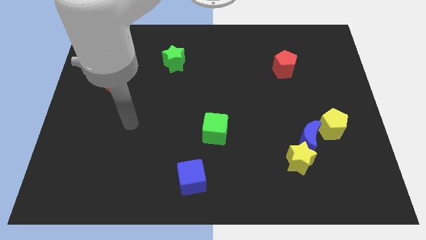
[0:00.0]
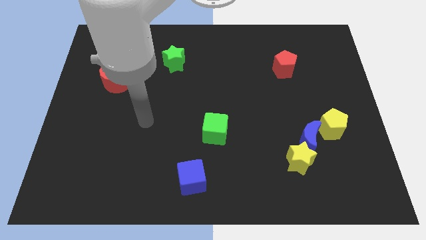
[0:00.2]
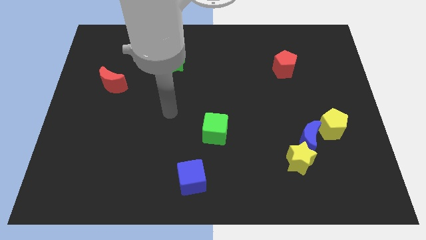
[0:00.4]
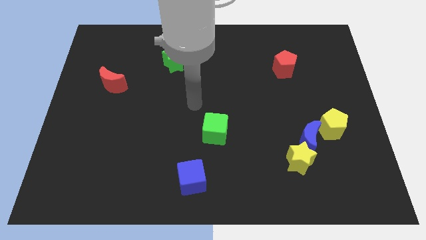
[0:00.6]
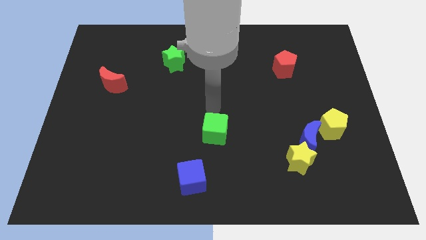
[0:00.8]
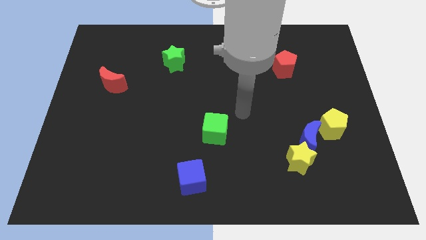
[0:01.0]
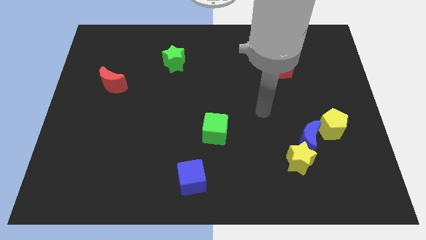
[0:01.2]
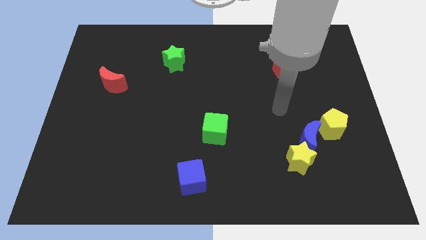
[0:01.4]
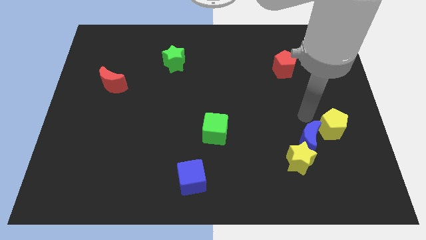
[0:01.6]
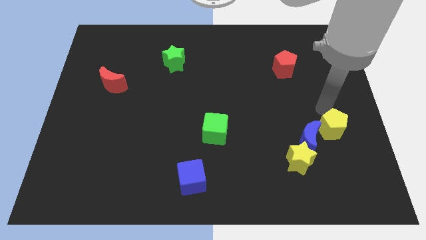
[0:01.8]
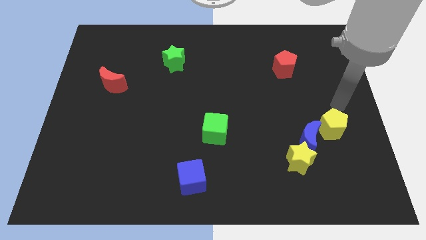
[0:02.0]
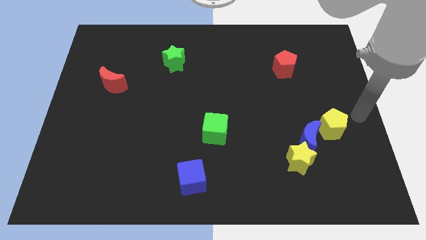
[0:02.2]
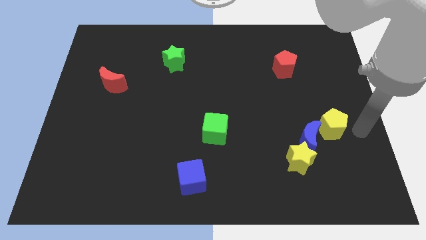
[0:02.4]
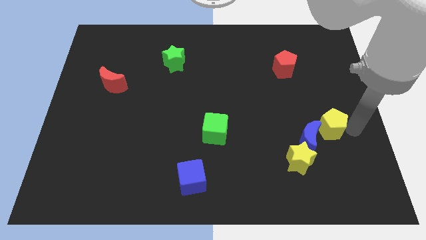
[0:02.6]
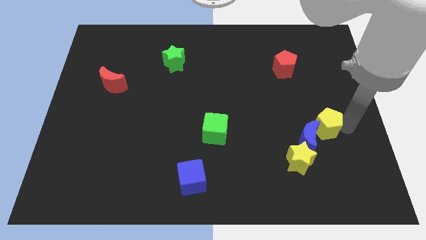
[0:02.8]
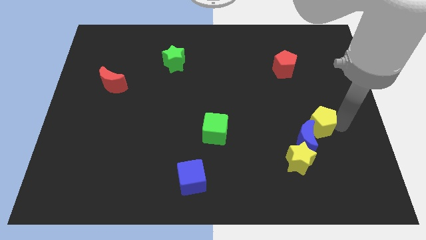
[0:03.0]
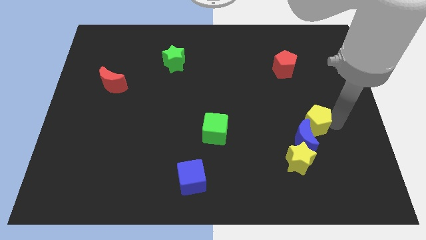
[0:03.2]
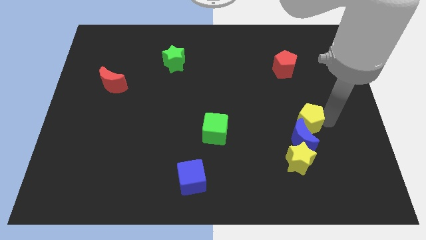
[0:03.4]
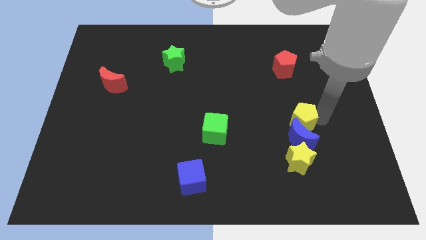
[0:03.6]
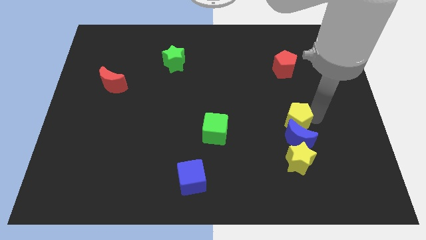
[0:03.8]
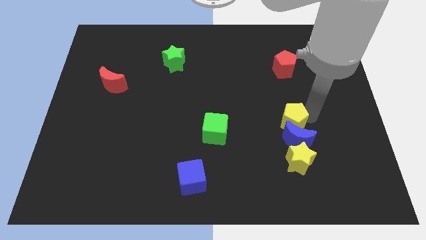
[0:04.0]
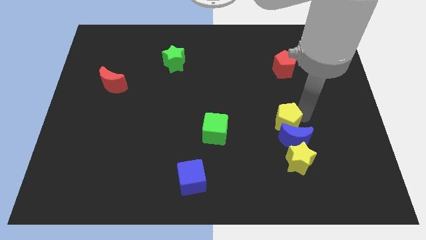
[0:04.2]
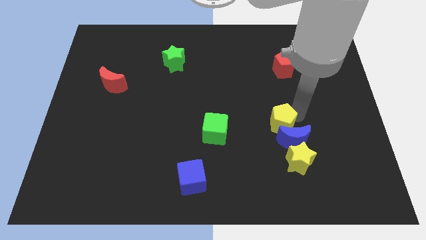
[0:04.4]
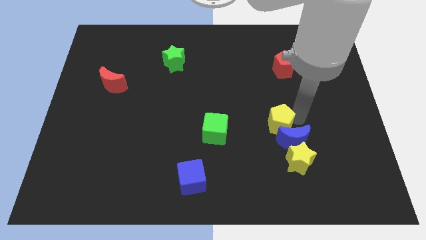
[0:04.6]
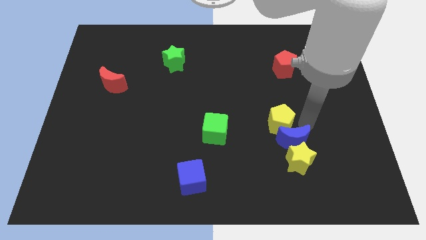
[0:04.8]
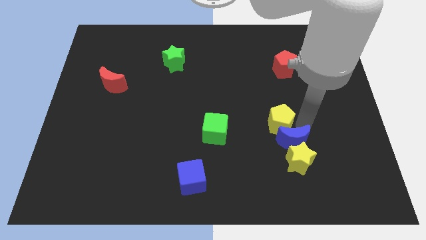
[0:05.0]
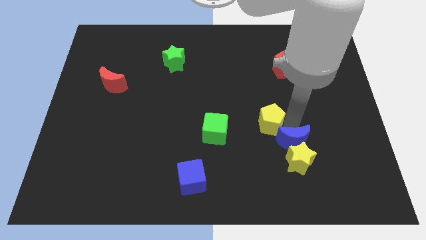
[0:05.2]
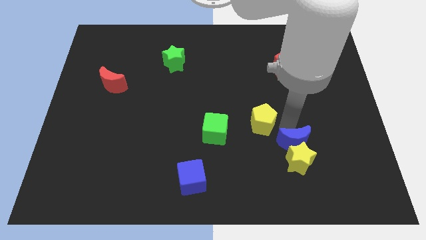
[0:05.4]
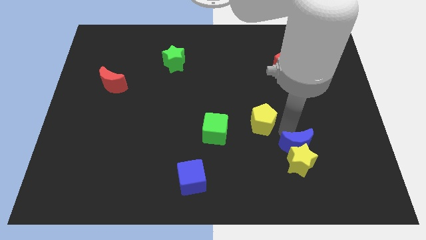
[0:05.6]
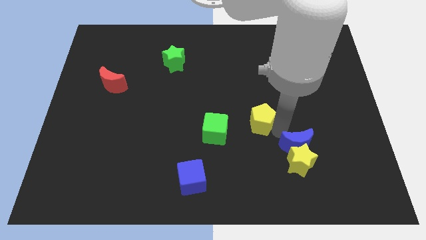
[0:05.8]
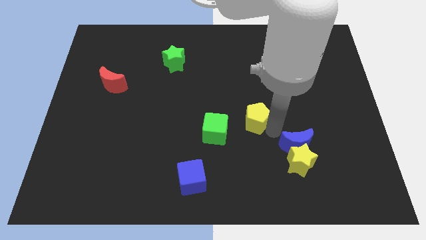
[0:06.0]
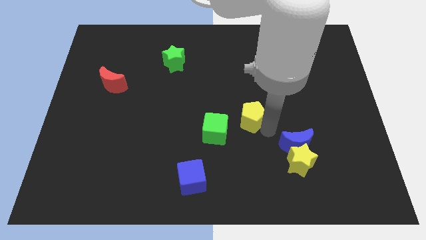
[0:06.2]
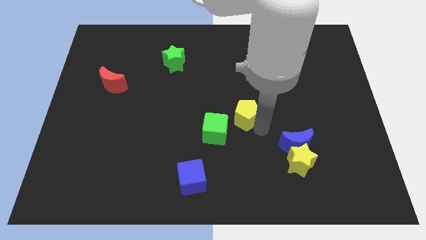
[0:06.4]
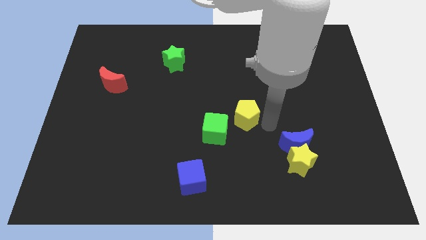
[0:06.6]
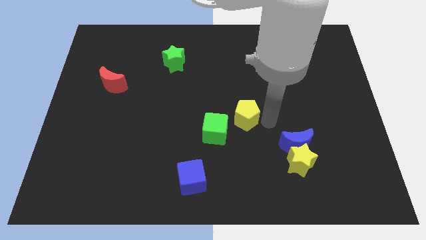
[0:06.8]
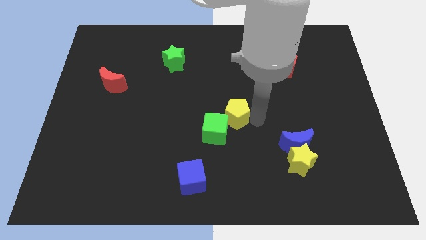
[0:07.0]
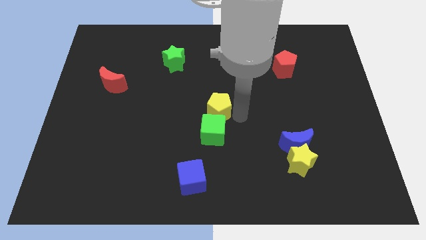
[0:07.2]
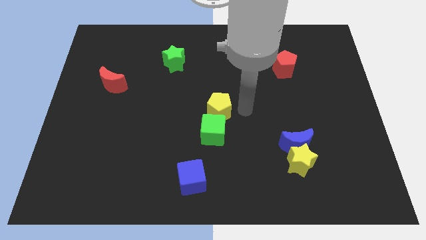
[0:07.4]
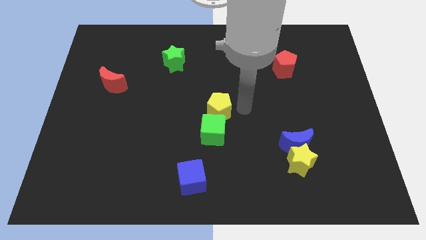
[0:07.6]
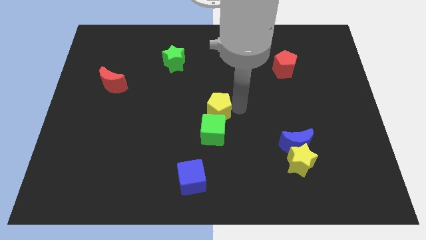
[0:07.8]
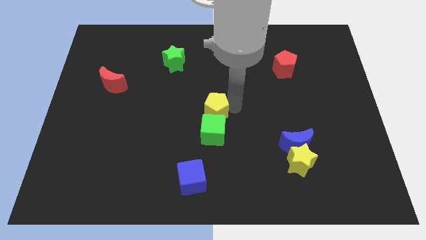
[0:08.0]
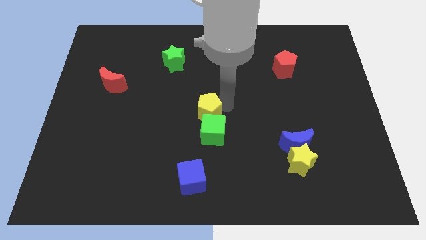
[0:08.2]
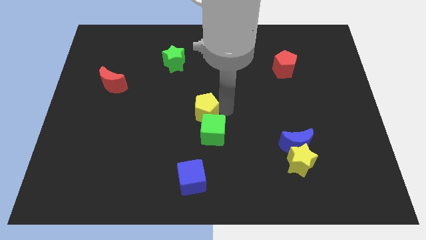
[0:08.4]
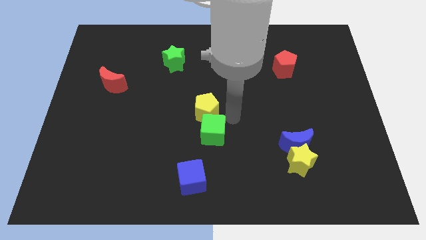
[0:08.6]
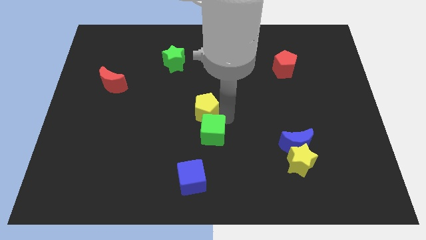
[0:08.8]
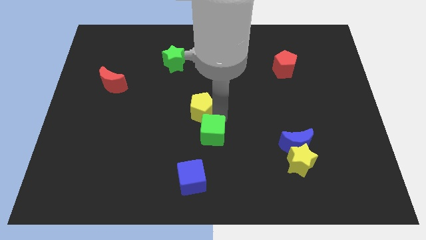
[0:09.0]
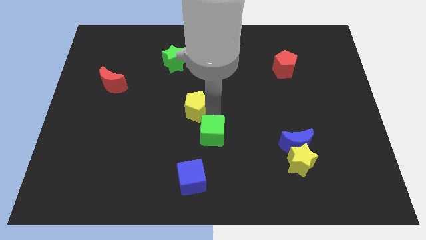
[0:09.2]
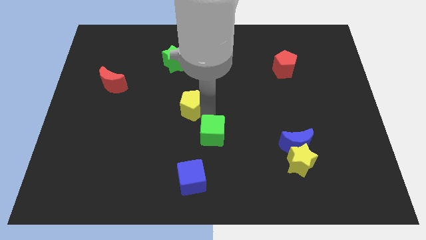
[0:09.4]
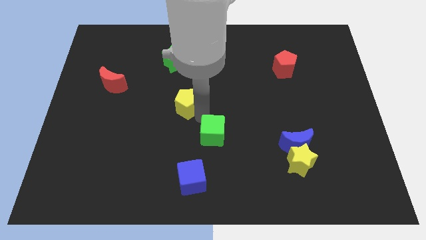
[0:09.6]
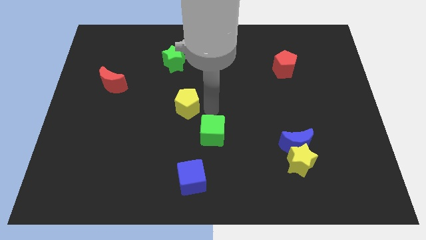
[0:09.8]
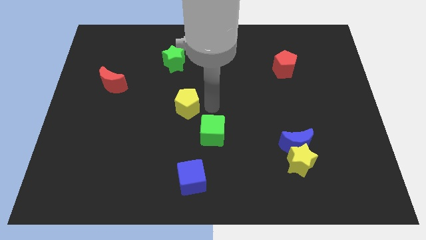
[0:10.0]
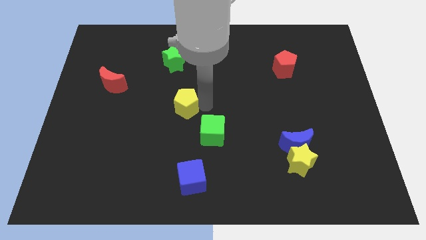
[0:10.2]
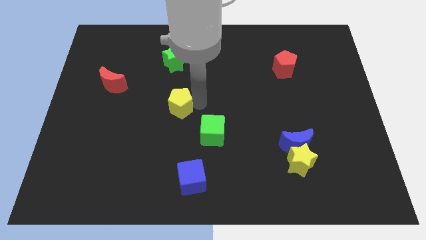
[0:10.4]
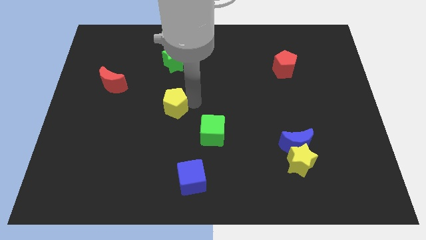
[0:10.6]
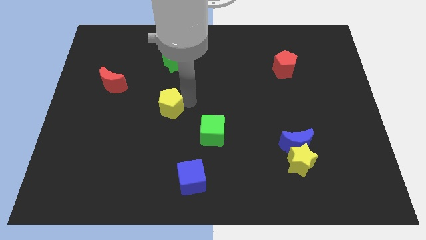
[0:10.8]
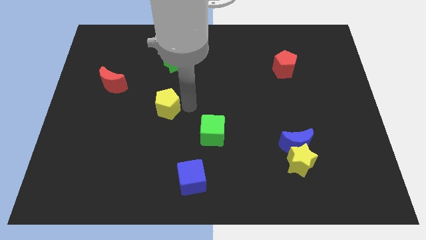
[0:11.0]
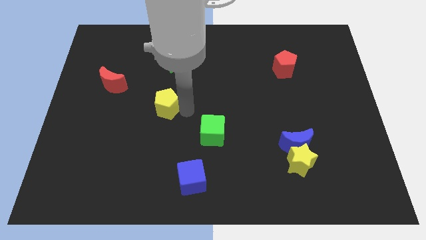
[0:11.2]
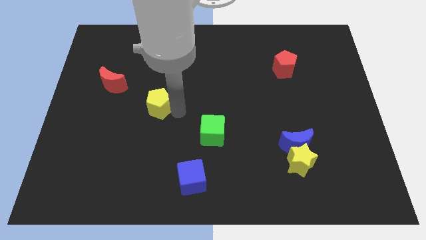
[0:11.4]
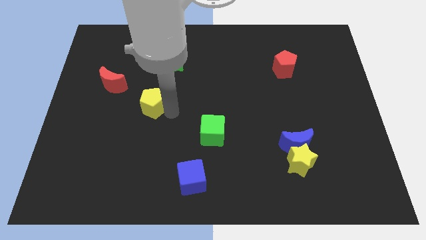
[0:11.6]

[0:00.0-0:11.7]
push the yellow pentagon to the bottom right of the red moon
